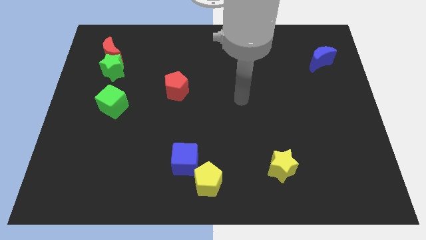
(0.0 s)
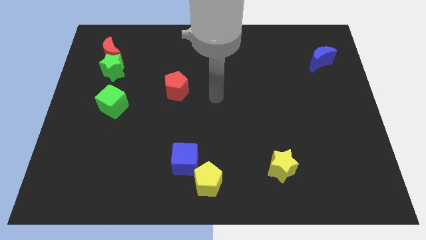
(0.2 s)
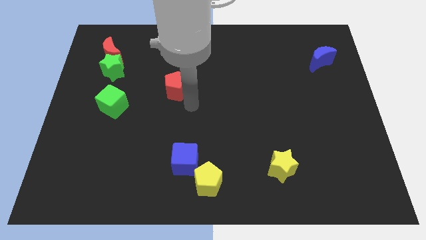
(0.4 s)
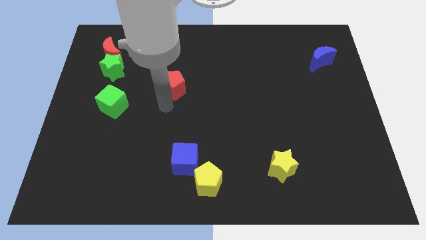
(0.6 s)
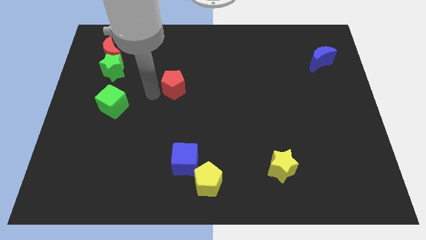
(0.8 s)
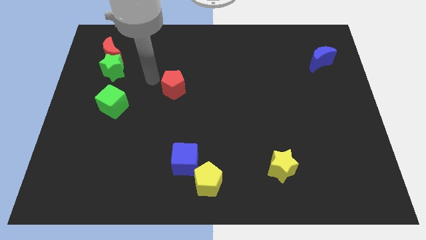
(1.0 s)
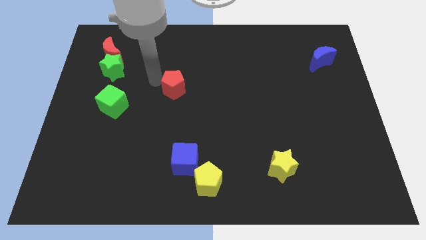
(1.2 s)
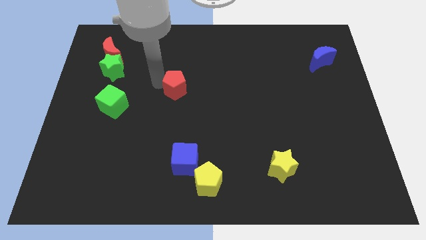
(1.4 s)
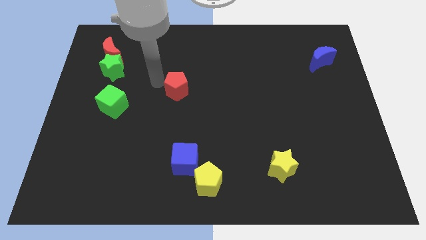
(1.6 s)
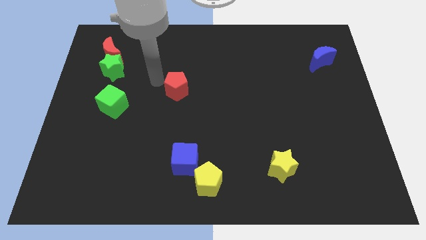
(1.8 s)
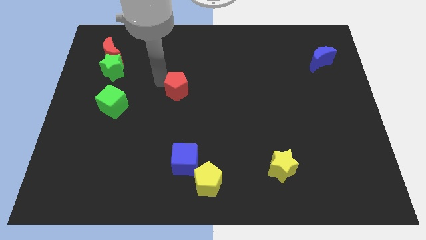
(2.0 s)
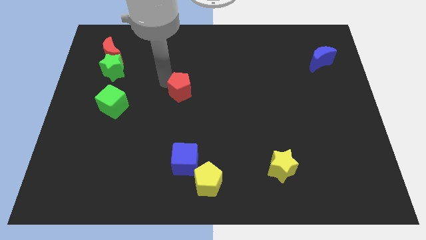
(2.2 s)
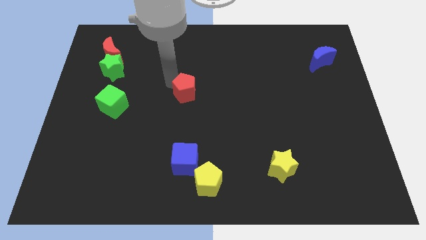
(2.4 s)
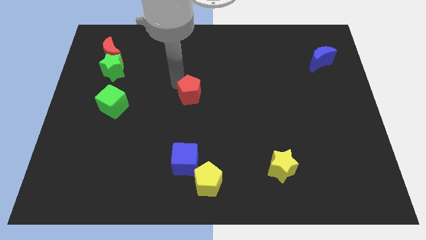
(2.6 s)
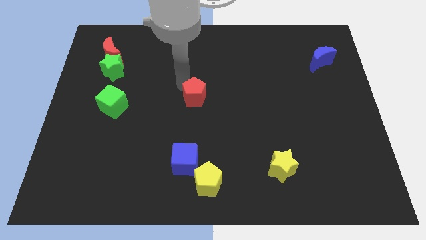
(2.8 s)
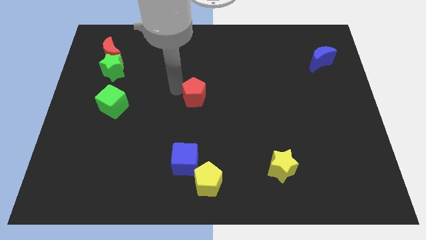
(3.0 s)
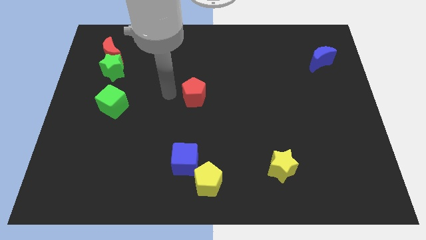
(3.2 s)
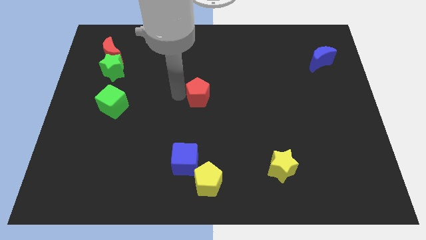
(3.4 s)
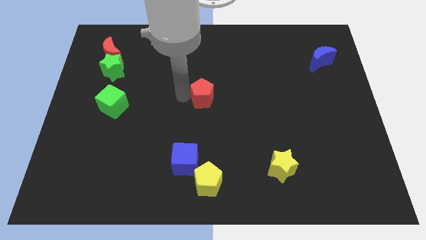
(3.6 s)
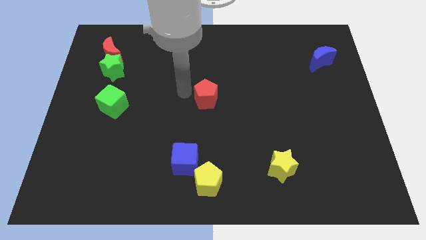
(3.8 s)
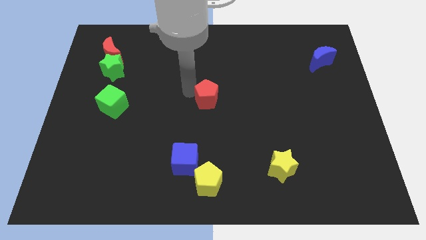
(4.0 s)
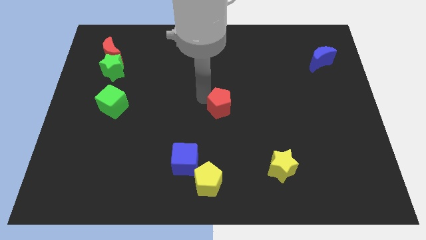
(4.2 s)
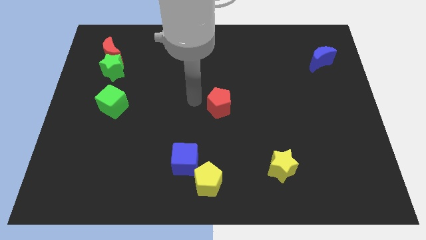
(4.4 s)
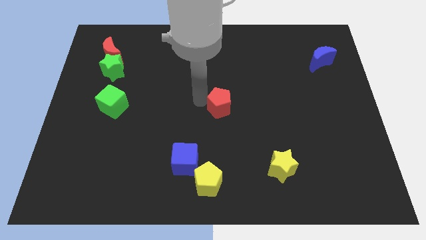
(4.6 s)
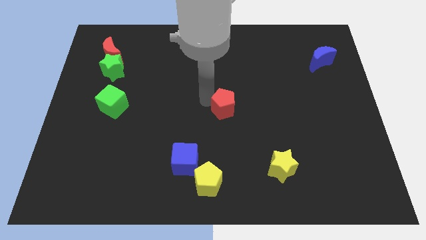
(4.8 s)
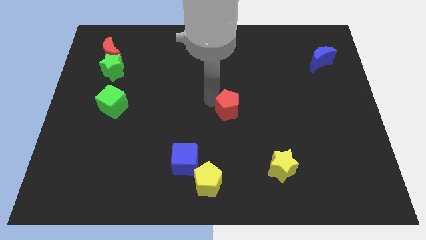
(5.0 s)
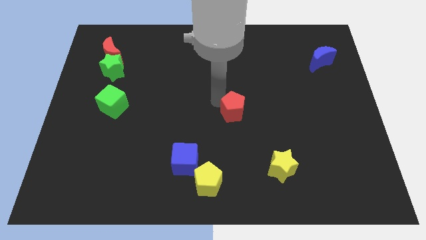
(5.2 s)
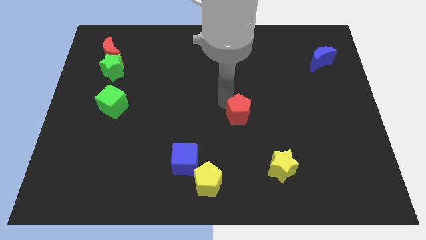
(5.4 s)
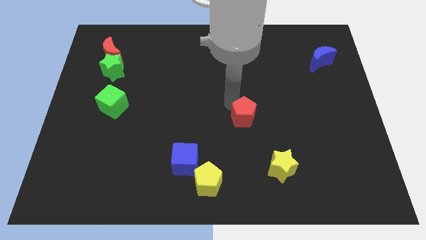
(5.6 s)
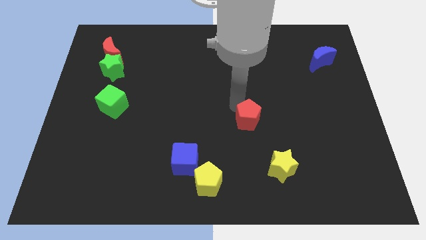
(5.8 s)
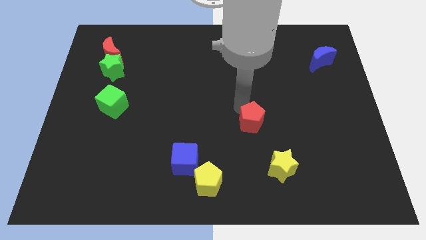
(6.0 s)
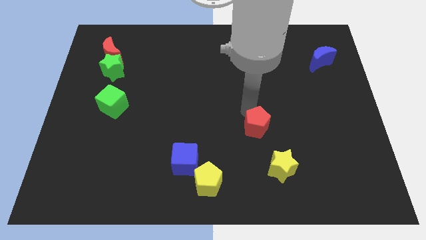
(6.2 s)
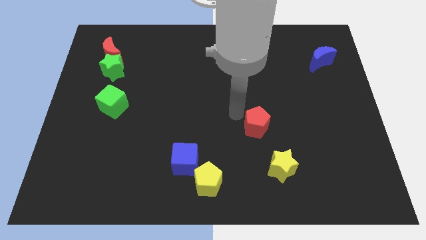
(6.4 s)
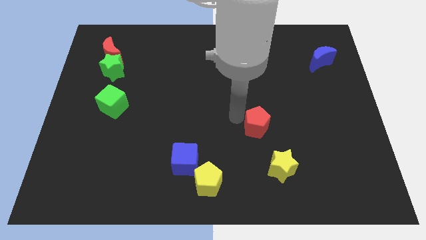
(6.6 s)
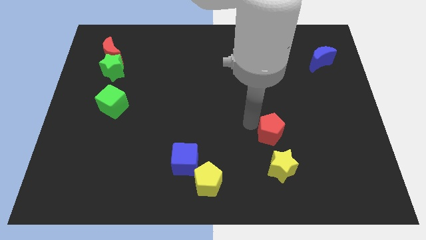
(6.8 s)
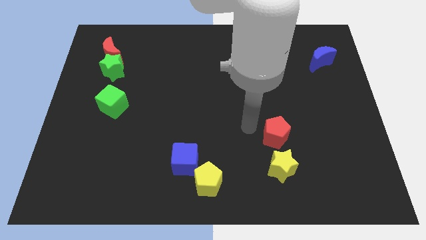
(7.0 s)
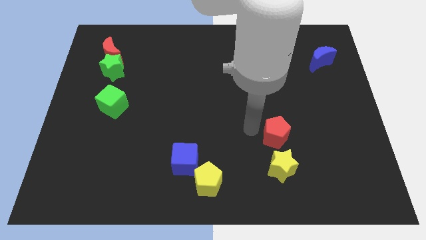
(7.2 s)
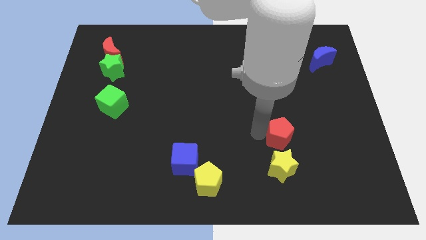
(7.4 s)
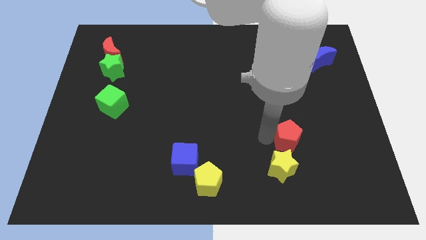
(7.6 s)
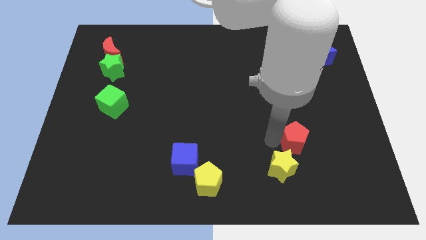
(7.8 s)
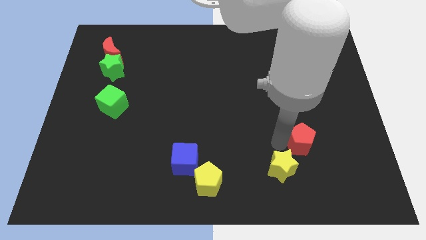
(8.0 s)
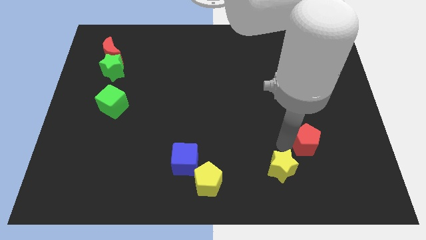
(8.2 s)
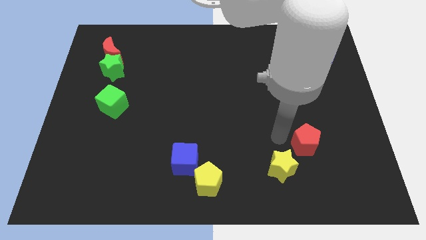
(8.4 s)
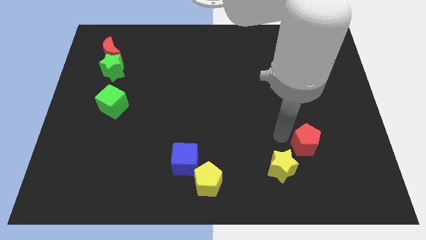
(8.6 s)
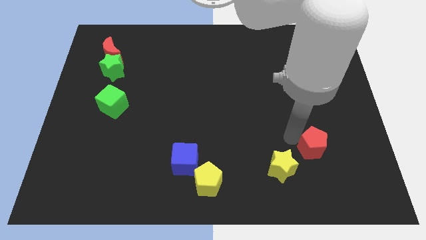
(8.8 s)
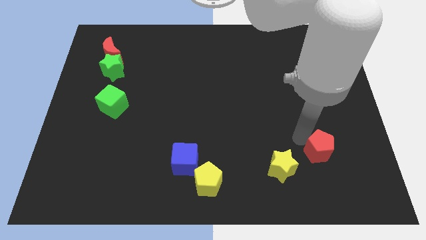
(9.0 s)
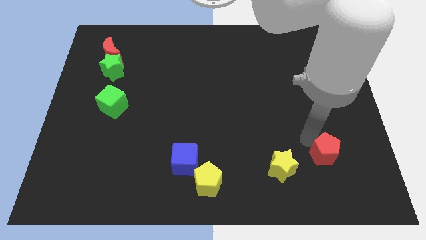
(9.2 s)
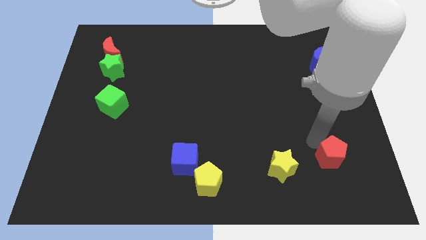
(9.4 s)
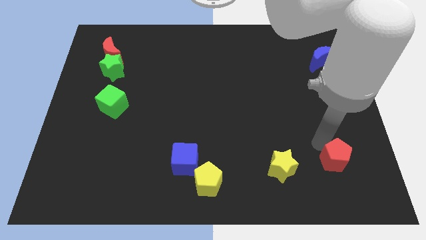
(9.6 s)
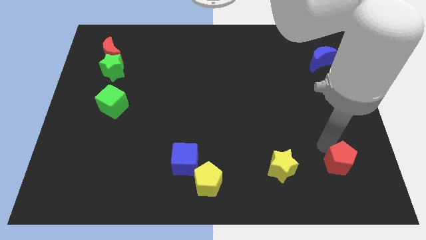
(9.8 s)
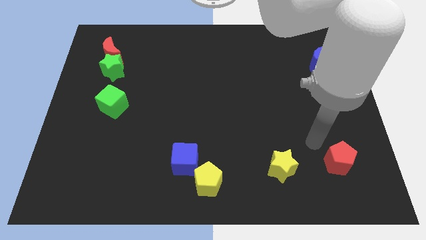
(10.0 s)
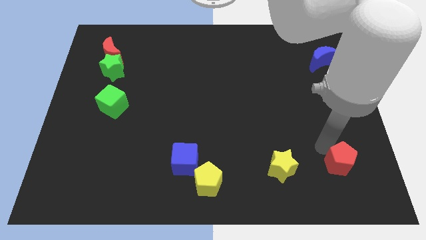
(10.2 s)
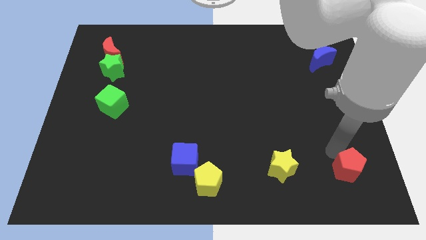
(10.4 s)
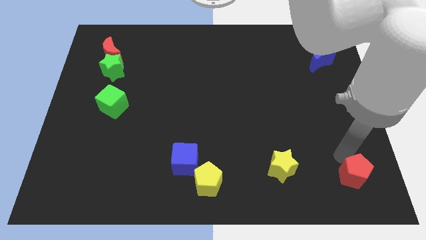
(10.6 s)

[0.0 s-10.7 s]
slide the red pentagon to the lower right corner
